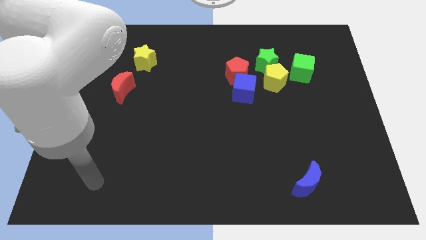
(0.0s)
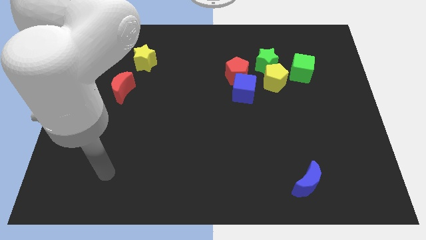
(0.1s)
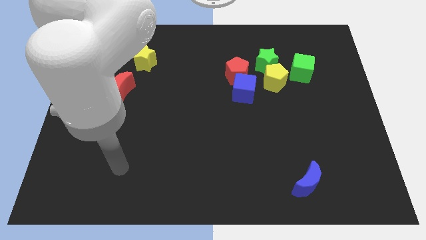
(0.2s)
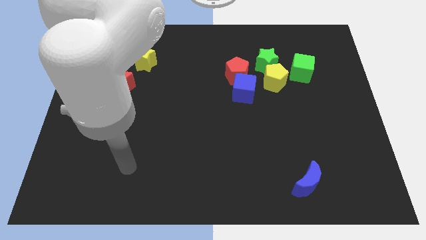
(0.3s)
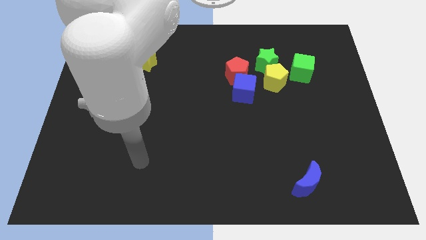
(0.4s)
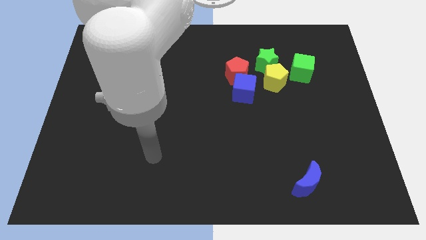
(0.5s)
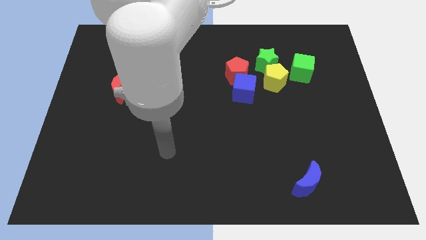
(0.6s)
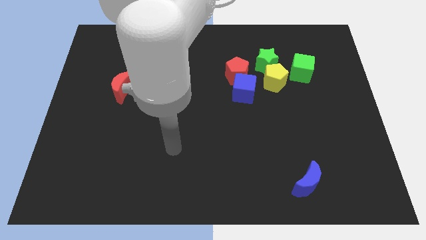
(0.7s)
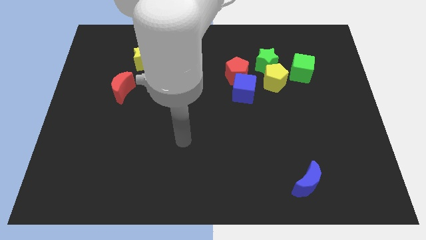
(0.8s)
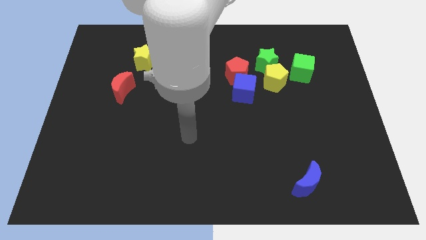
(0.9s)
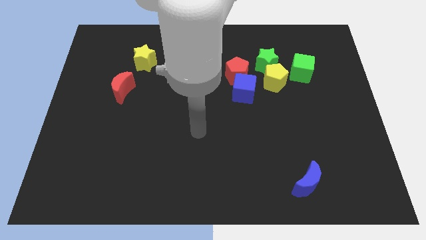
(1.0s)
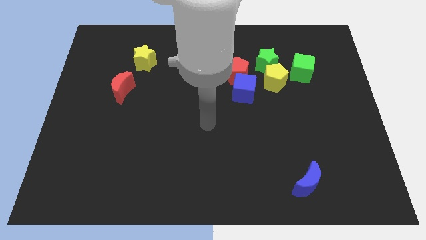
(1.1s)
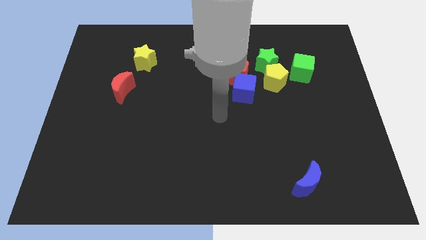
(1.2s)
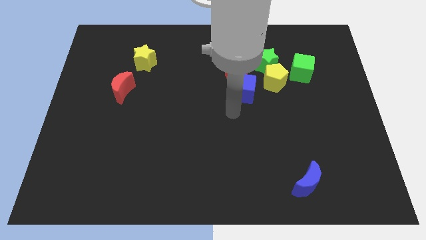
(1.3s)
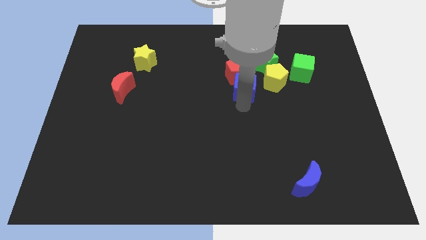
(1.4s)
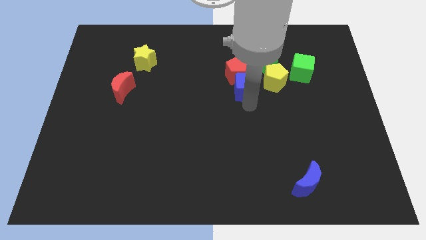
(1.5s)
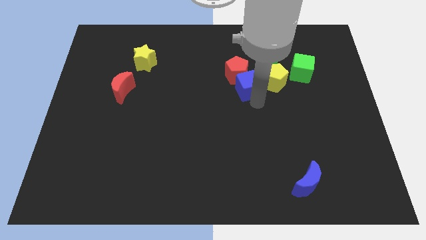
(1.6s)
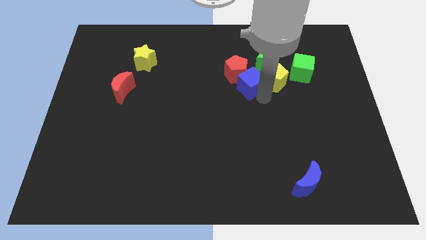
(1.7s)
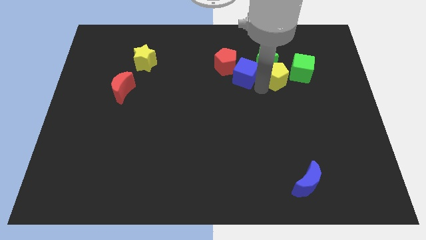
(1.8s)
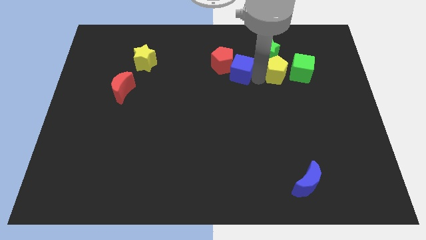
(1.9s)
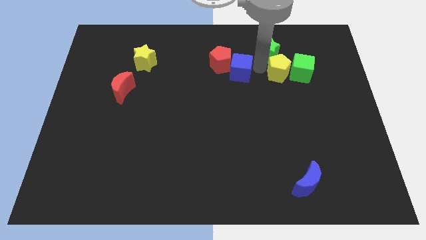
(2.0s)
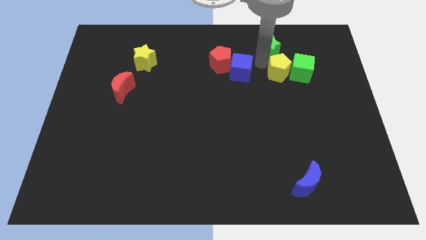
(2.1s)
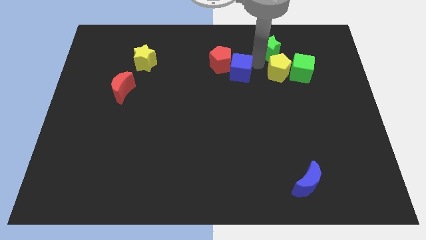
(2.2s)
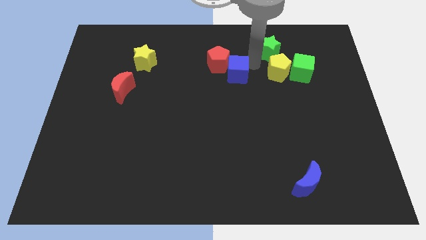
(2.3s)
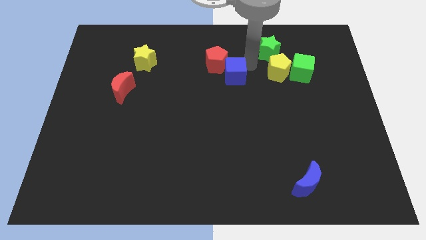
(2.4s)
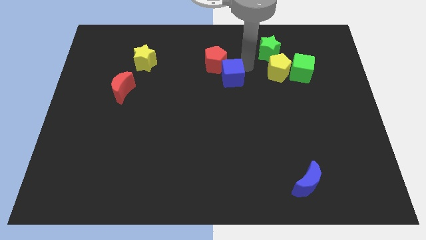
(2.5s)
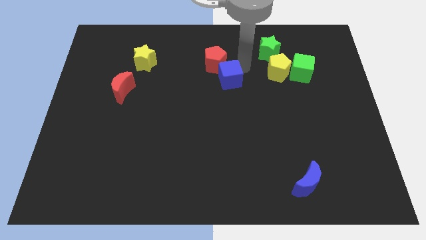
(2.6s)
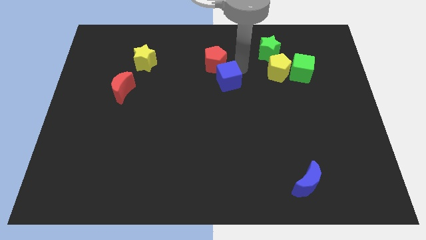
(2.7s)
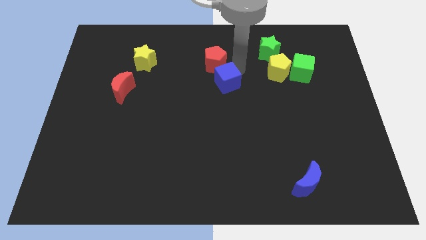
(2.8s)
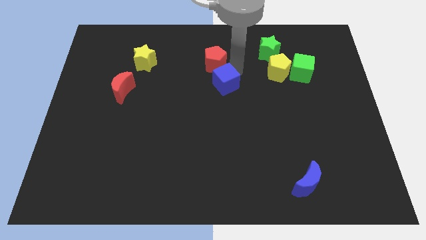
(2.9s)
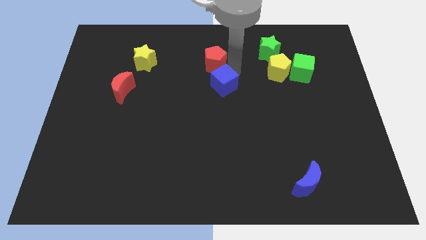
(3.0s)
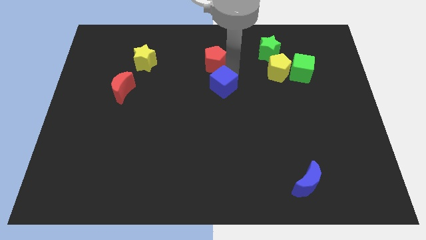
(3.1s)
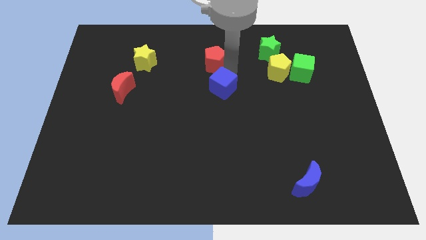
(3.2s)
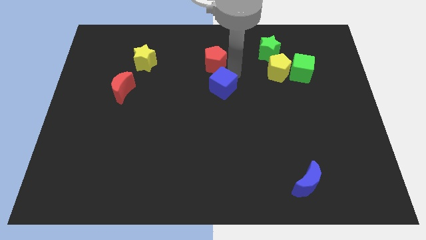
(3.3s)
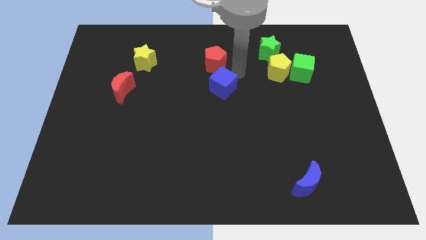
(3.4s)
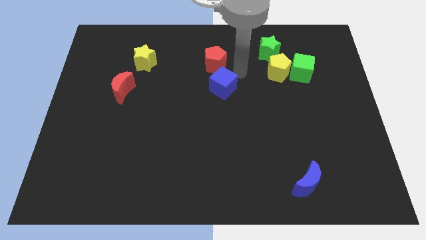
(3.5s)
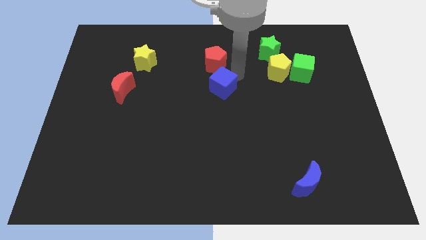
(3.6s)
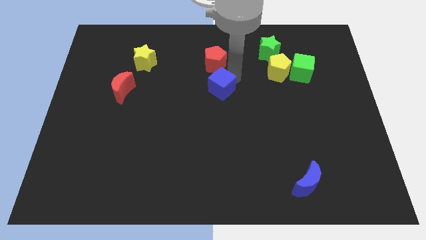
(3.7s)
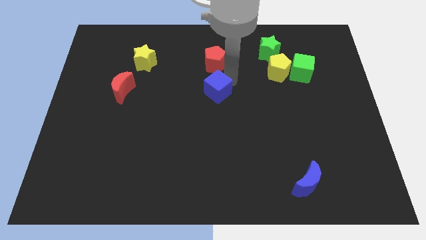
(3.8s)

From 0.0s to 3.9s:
separate the blue cube from the red pentagon and yellow pentagon

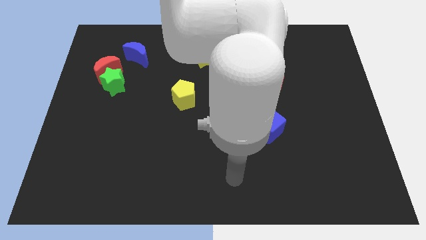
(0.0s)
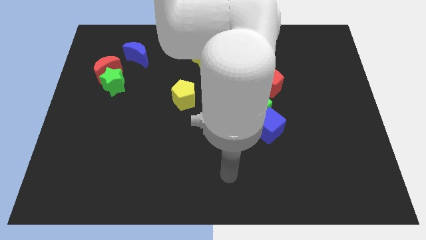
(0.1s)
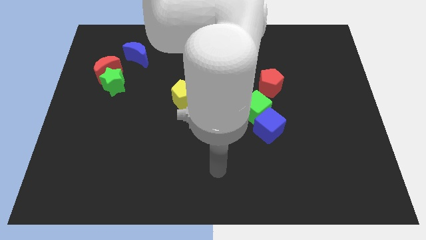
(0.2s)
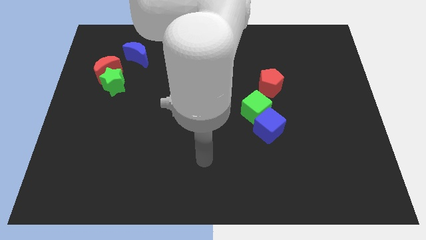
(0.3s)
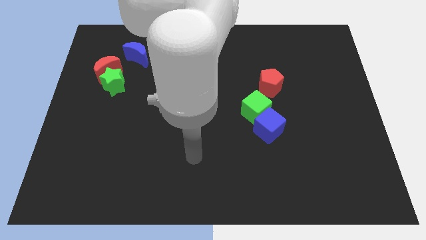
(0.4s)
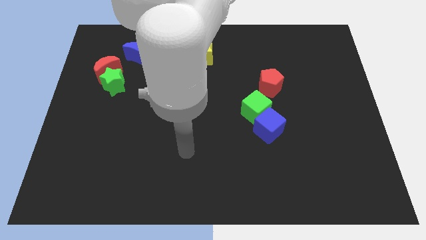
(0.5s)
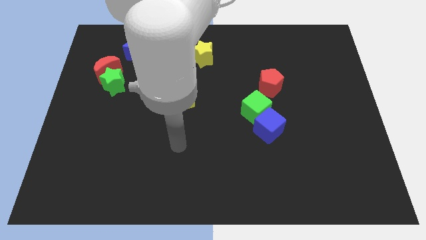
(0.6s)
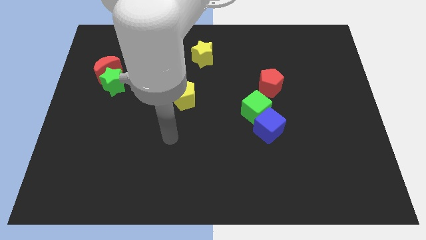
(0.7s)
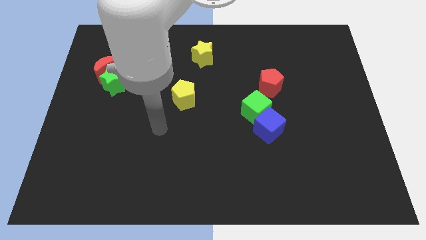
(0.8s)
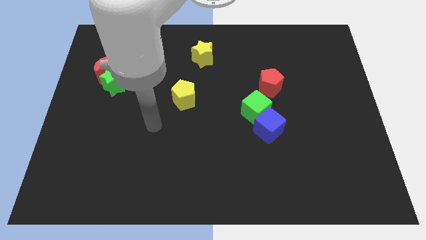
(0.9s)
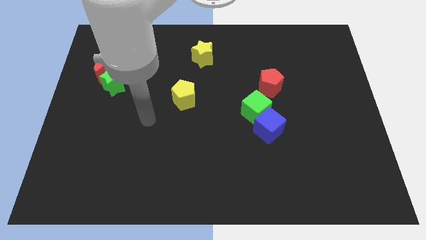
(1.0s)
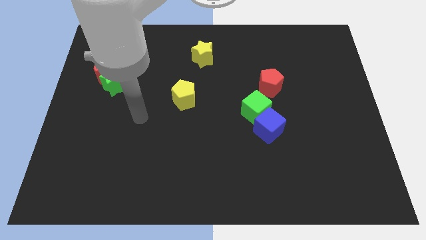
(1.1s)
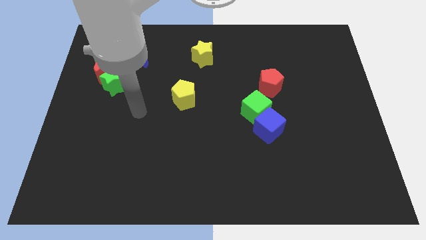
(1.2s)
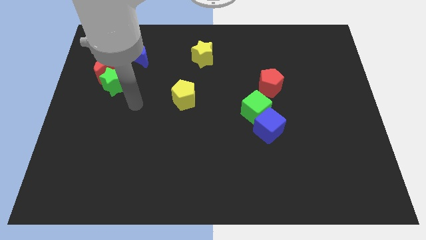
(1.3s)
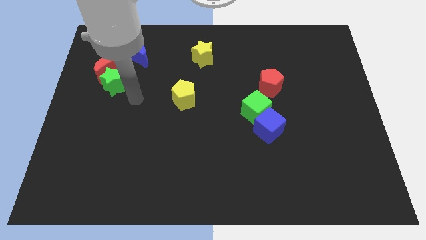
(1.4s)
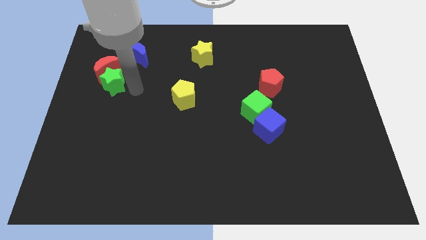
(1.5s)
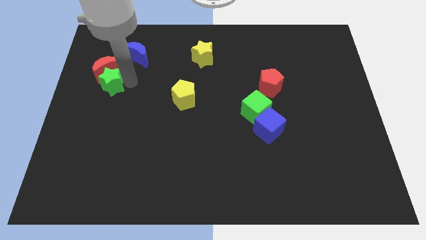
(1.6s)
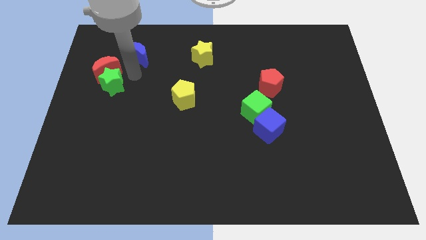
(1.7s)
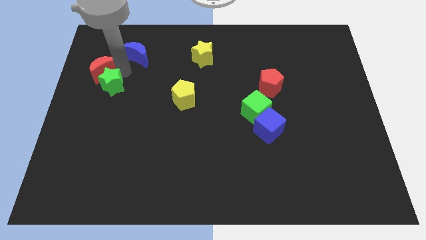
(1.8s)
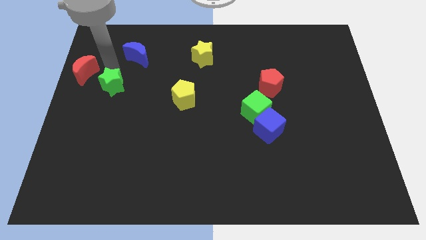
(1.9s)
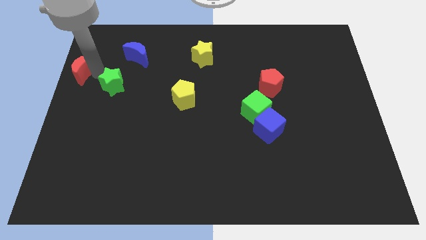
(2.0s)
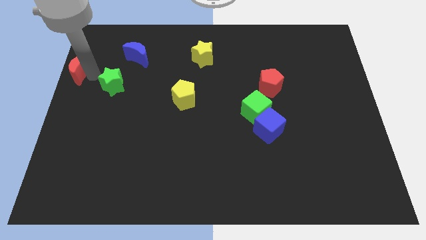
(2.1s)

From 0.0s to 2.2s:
separate the green star from the red moon

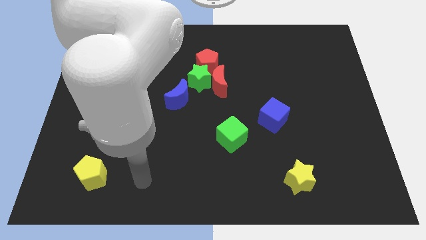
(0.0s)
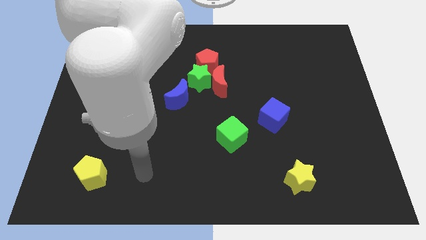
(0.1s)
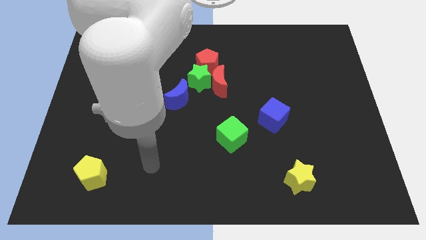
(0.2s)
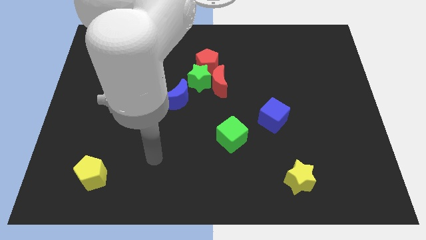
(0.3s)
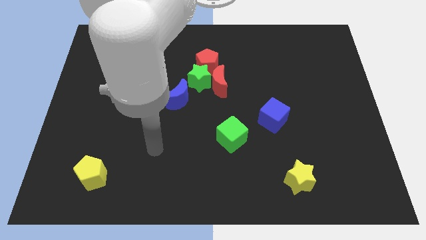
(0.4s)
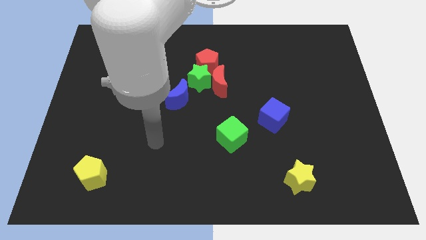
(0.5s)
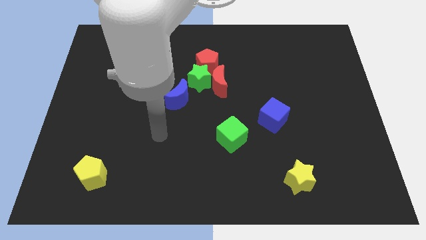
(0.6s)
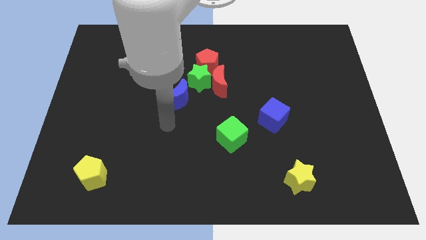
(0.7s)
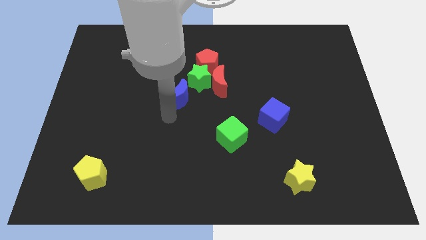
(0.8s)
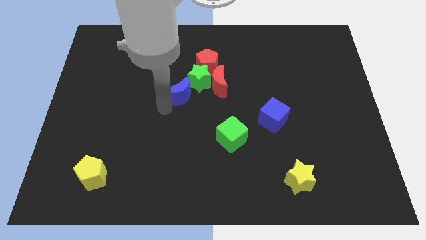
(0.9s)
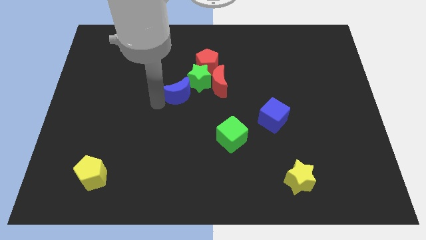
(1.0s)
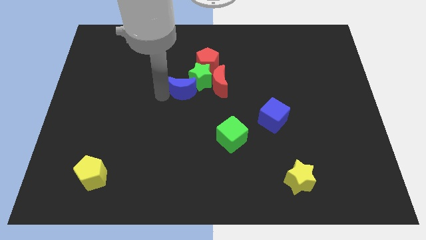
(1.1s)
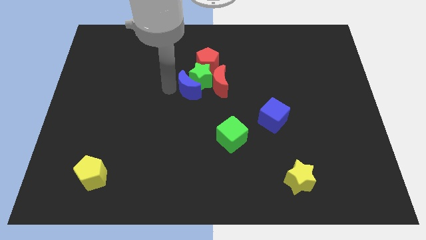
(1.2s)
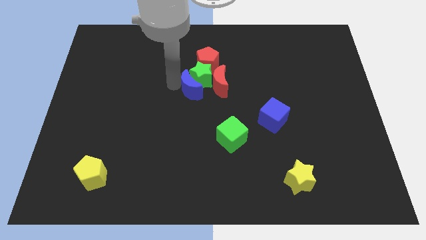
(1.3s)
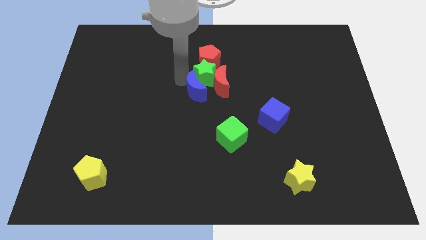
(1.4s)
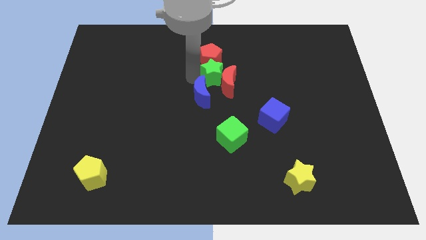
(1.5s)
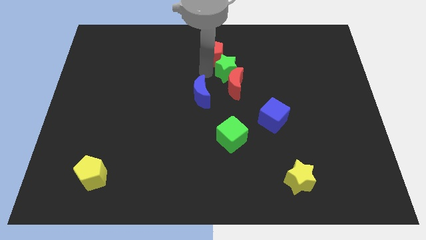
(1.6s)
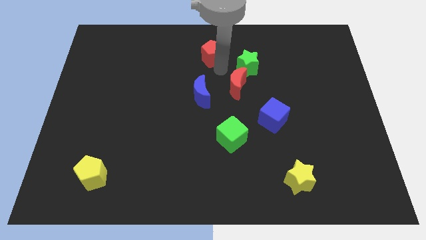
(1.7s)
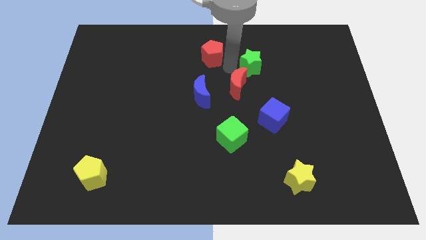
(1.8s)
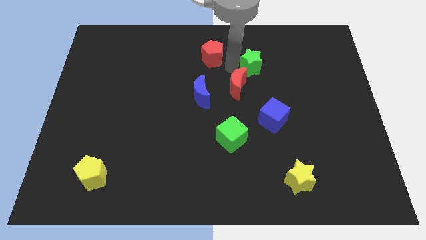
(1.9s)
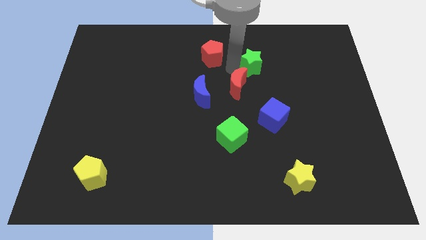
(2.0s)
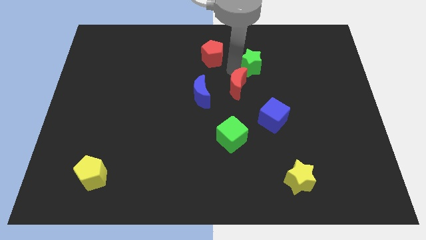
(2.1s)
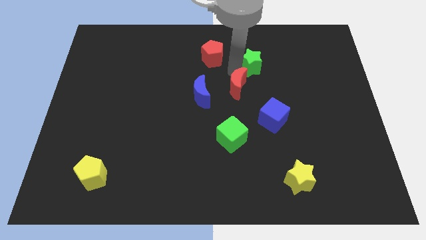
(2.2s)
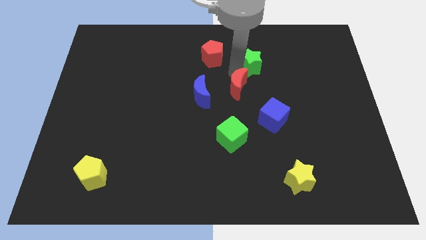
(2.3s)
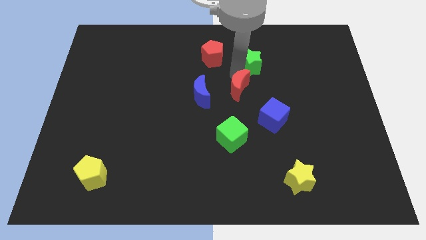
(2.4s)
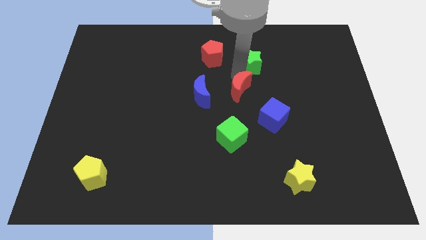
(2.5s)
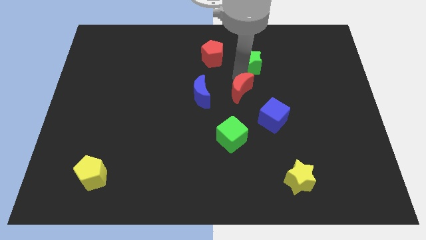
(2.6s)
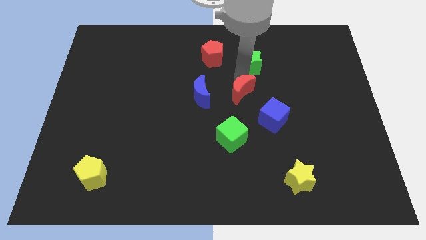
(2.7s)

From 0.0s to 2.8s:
move the red moon away from the green star and red pentagon

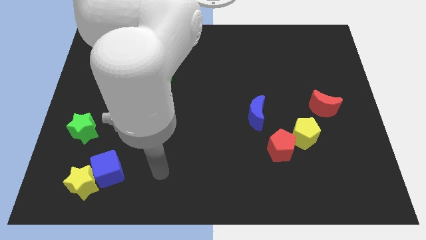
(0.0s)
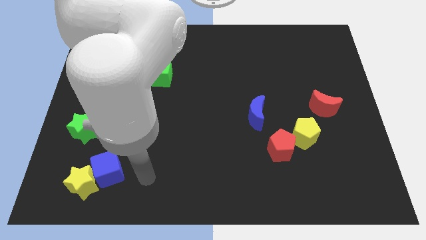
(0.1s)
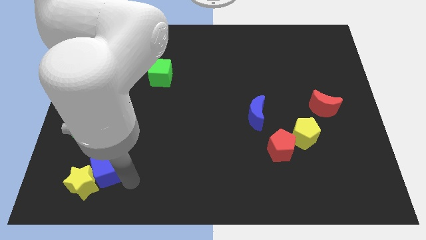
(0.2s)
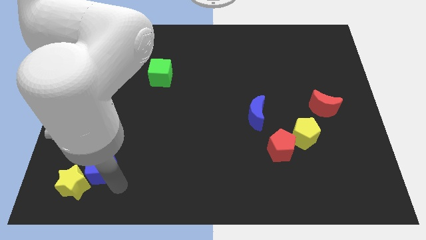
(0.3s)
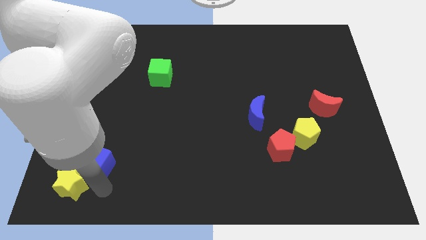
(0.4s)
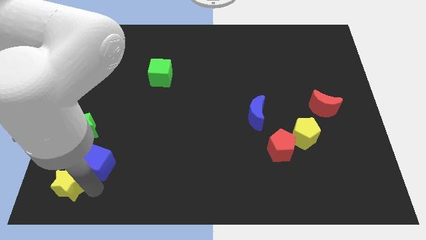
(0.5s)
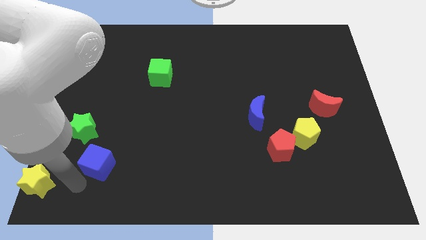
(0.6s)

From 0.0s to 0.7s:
separate the blue cube from the yellow star
